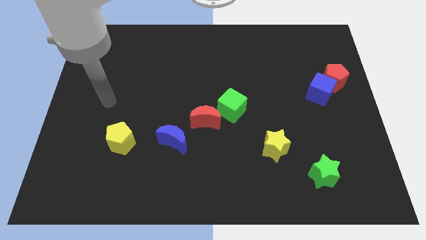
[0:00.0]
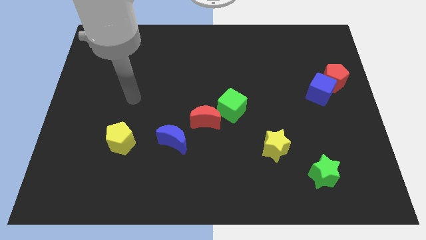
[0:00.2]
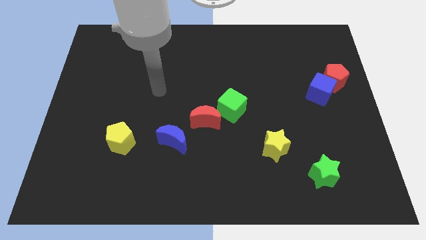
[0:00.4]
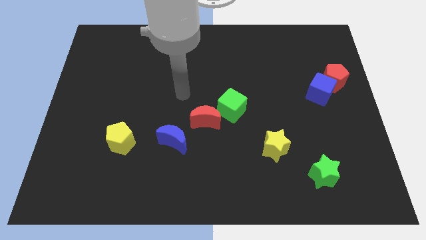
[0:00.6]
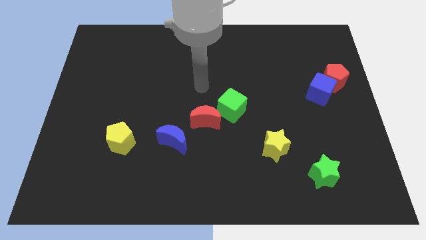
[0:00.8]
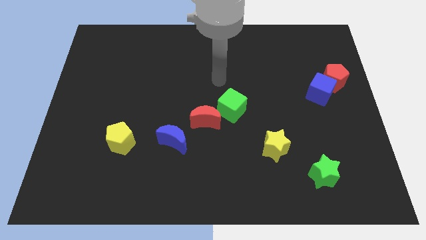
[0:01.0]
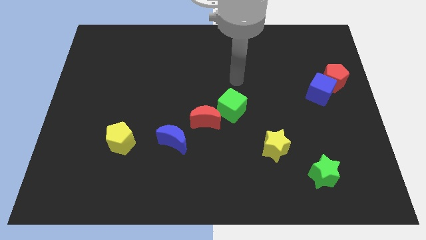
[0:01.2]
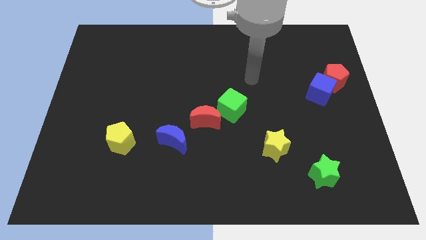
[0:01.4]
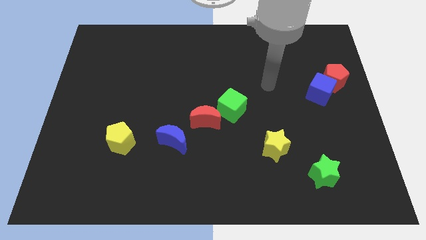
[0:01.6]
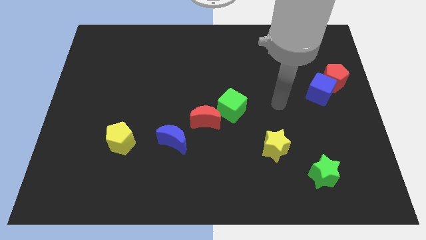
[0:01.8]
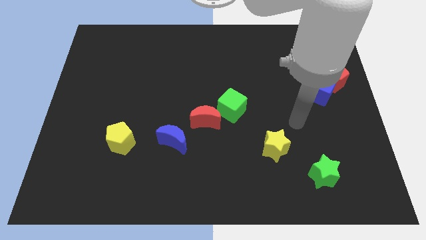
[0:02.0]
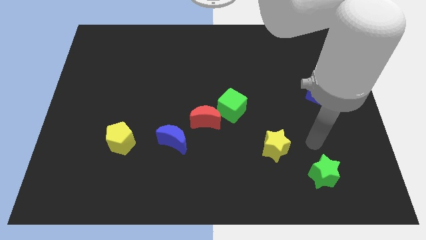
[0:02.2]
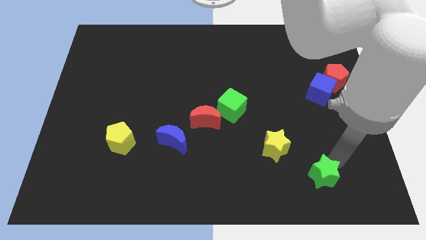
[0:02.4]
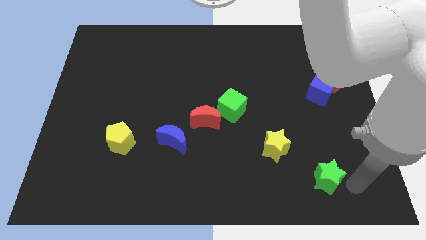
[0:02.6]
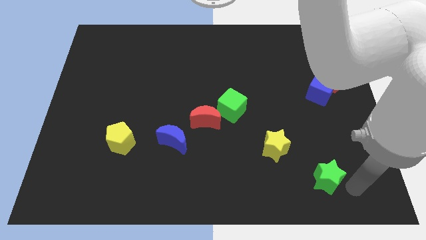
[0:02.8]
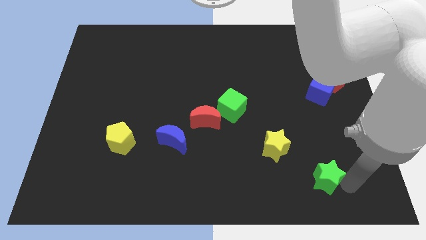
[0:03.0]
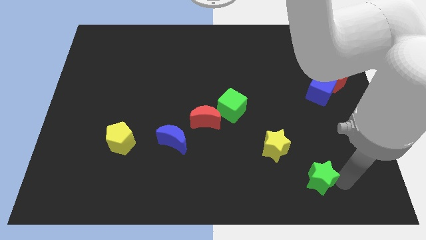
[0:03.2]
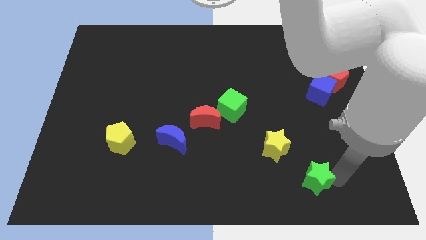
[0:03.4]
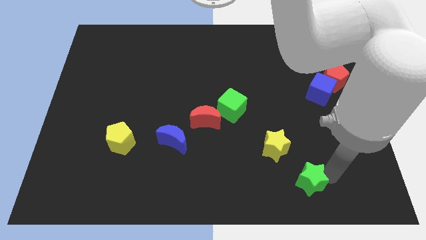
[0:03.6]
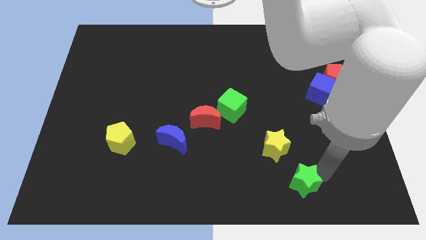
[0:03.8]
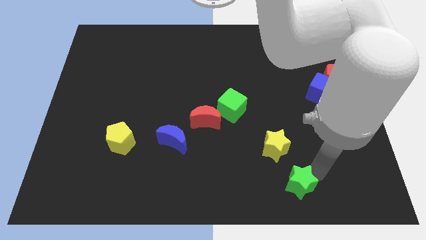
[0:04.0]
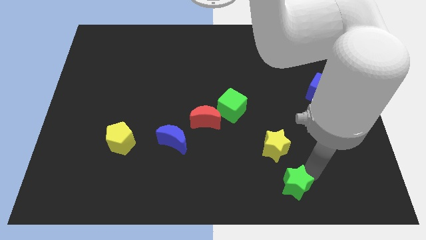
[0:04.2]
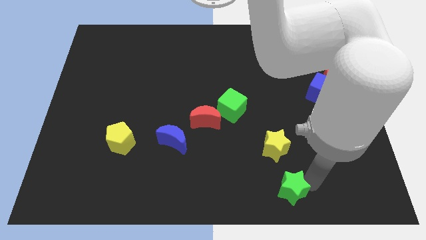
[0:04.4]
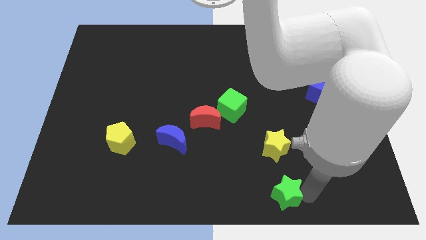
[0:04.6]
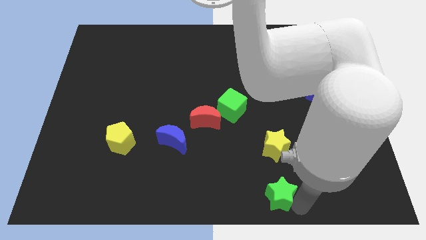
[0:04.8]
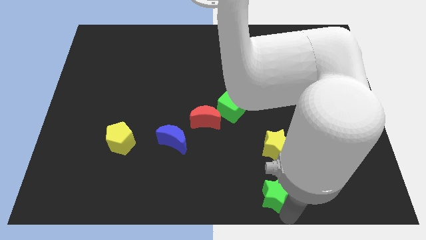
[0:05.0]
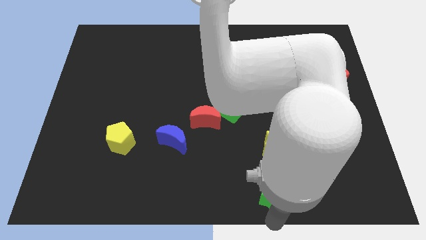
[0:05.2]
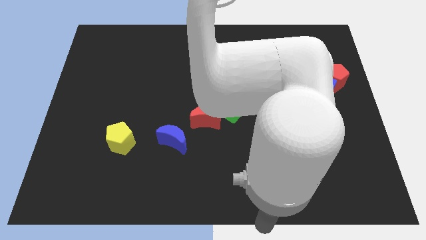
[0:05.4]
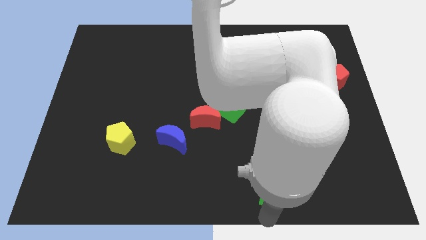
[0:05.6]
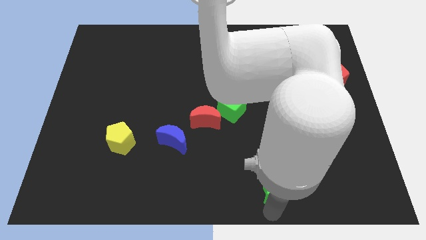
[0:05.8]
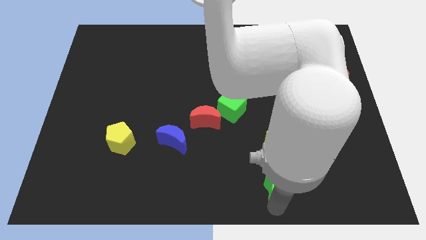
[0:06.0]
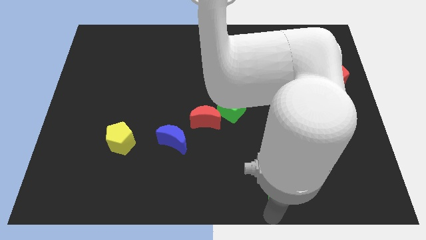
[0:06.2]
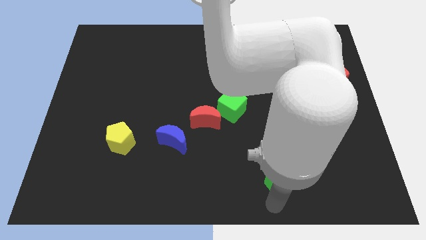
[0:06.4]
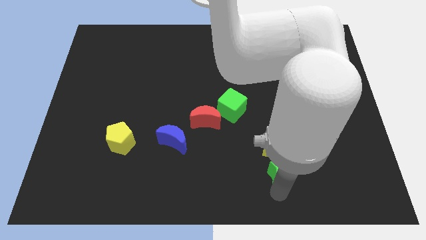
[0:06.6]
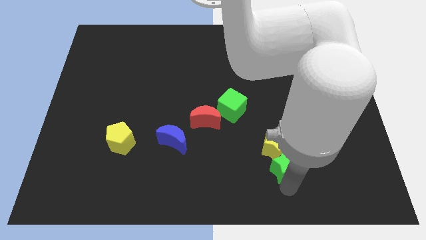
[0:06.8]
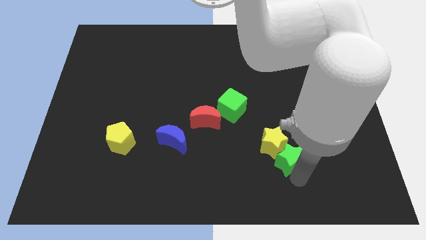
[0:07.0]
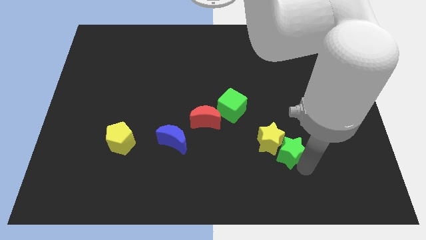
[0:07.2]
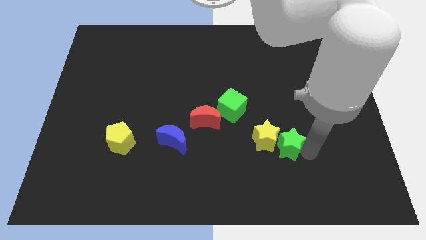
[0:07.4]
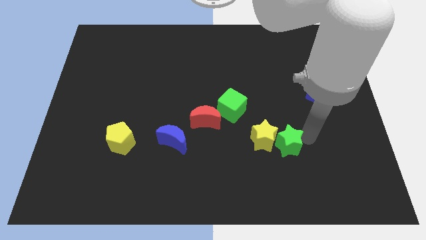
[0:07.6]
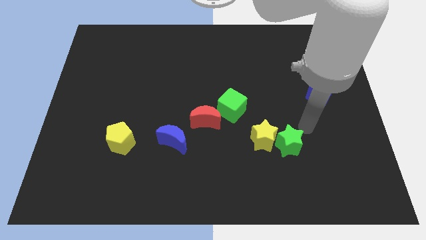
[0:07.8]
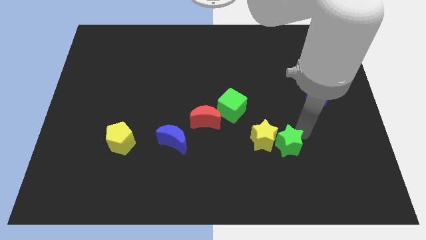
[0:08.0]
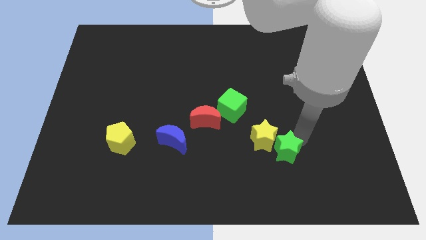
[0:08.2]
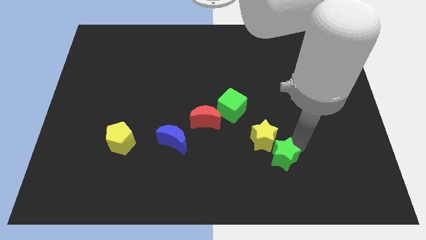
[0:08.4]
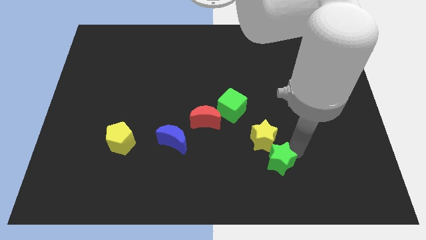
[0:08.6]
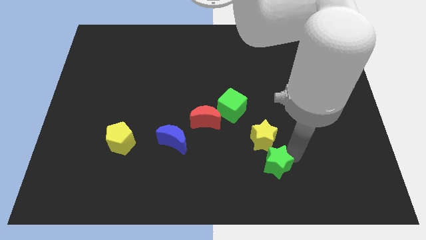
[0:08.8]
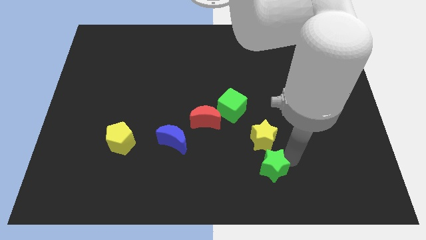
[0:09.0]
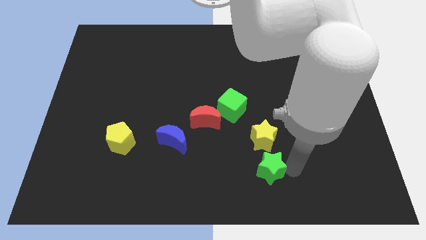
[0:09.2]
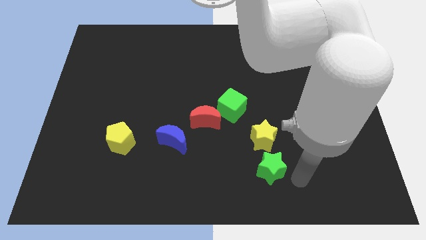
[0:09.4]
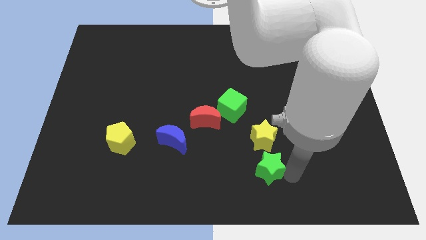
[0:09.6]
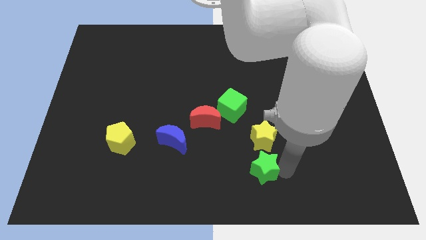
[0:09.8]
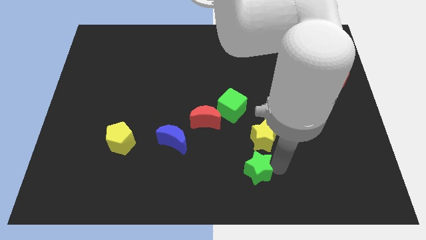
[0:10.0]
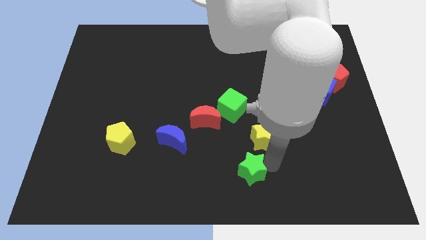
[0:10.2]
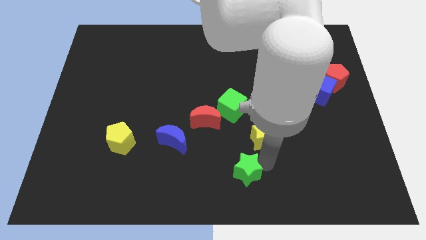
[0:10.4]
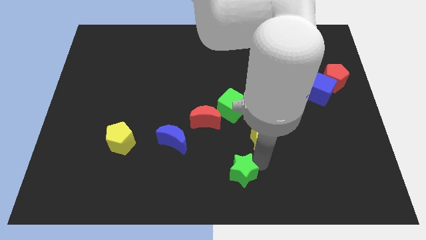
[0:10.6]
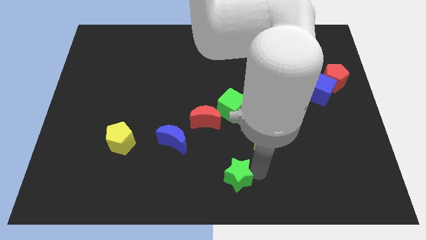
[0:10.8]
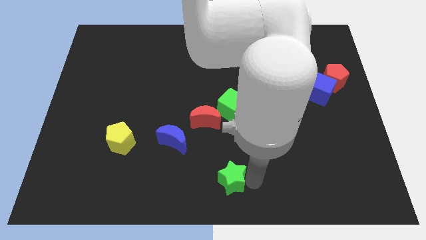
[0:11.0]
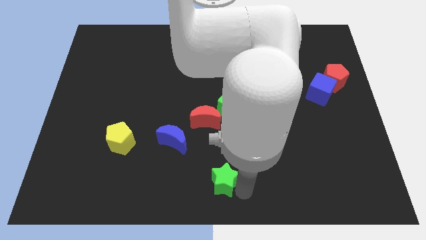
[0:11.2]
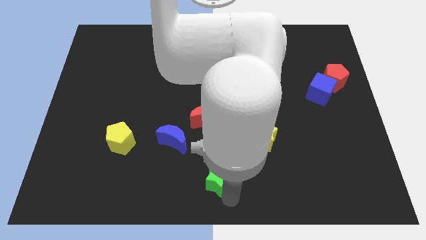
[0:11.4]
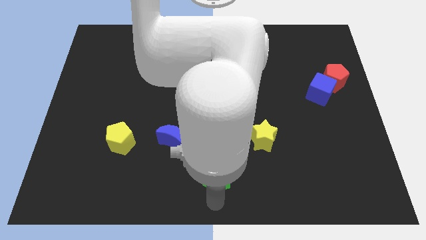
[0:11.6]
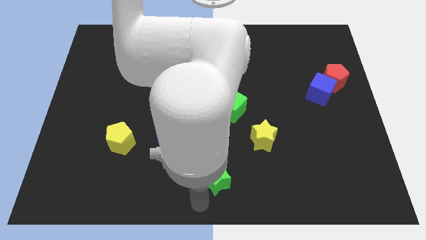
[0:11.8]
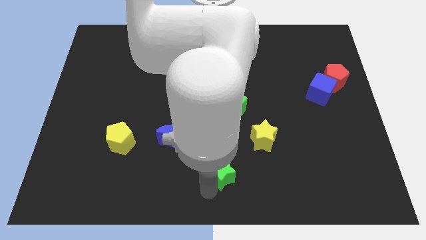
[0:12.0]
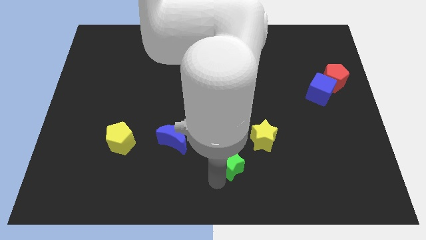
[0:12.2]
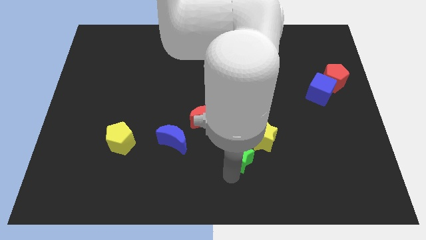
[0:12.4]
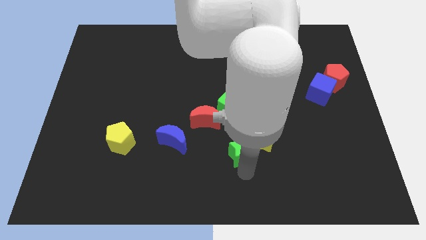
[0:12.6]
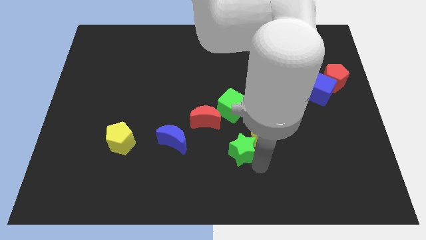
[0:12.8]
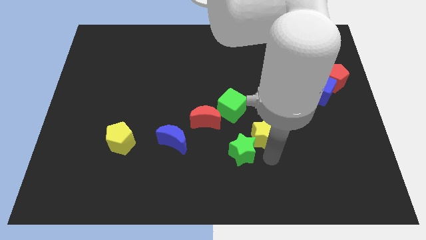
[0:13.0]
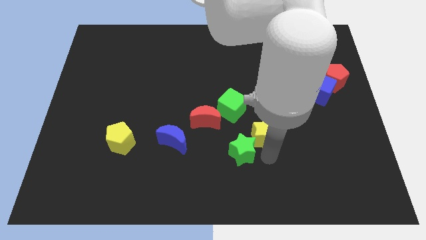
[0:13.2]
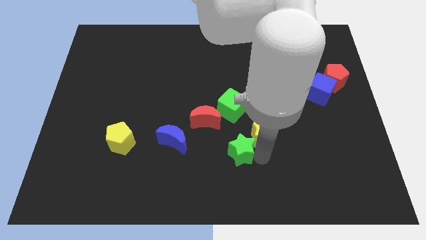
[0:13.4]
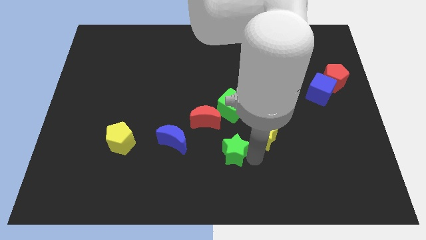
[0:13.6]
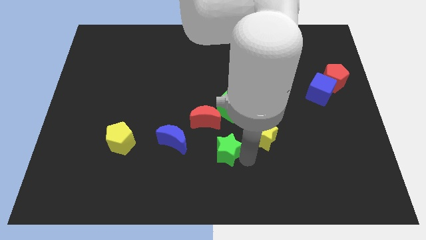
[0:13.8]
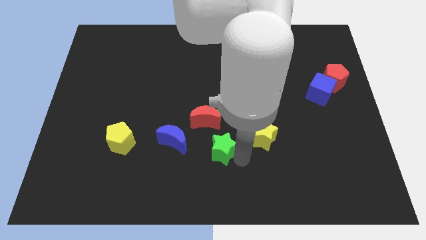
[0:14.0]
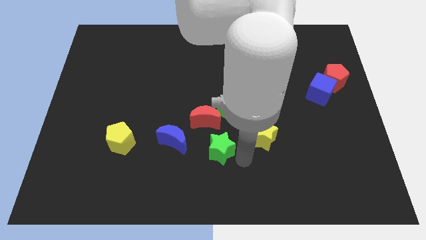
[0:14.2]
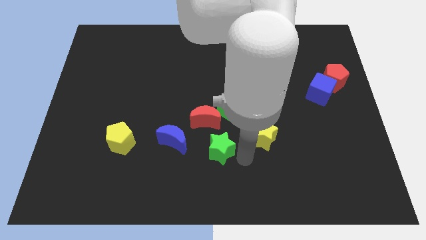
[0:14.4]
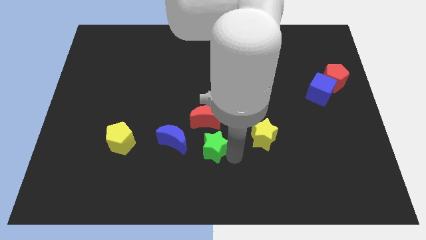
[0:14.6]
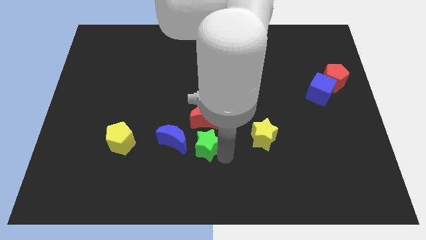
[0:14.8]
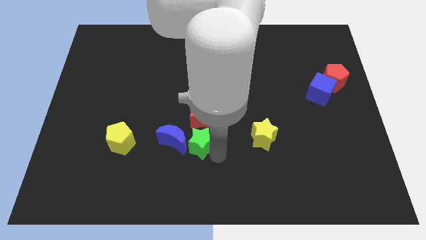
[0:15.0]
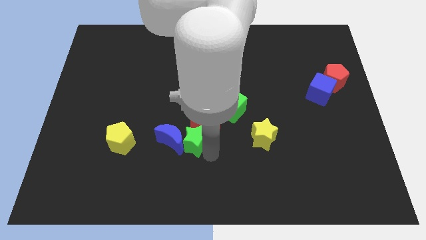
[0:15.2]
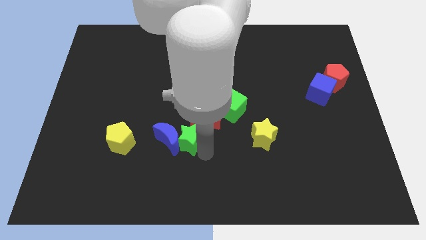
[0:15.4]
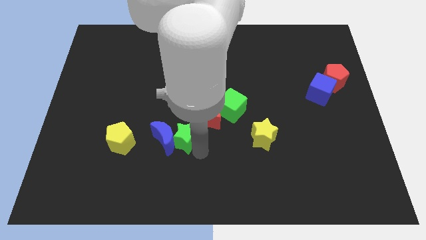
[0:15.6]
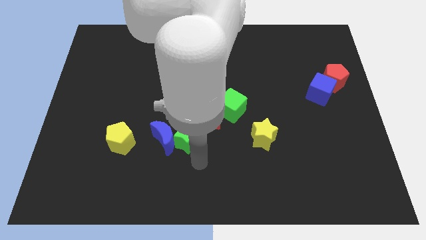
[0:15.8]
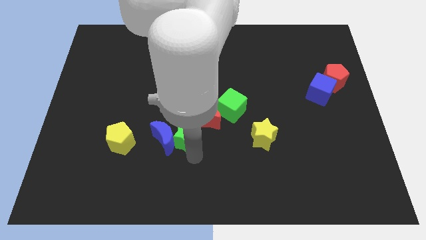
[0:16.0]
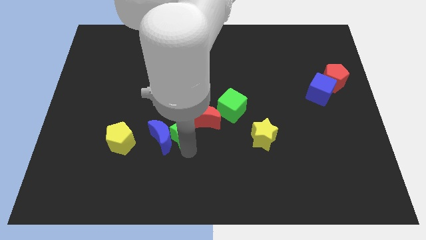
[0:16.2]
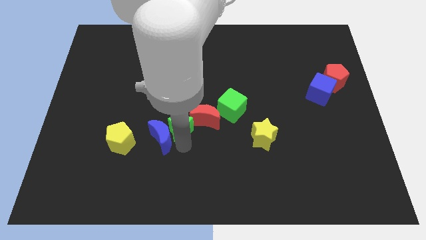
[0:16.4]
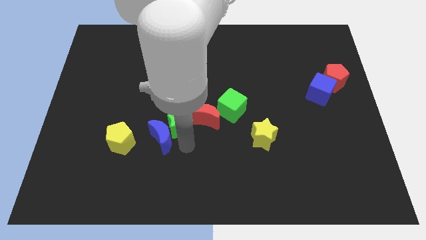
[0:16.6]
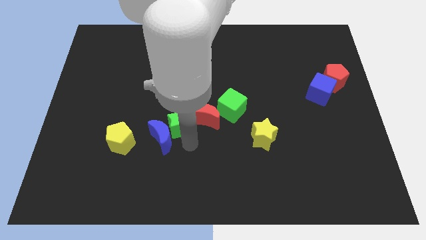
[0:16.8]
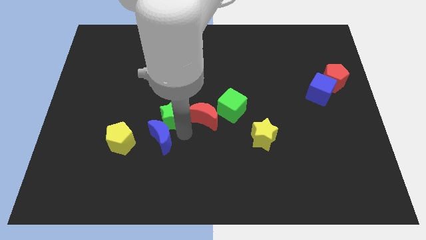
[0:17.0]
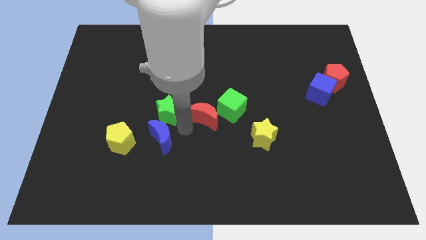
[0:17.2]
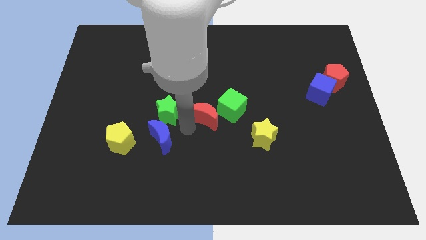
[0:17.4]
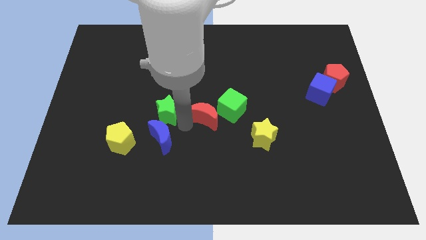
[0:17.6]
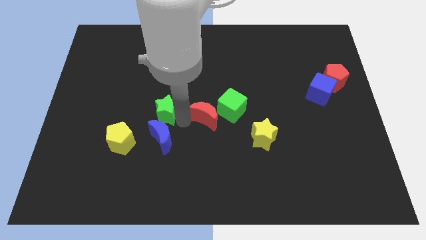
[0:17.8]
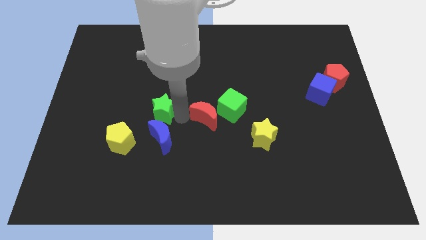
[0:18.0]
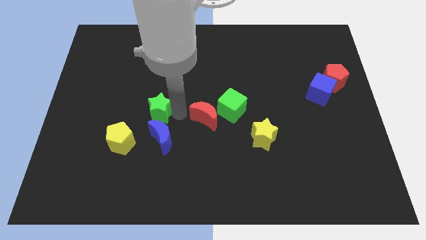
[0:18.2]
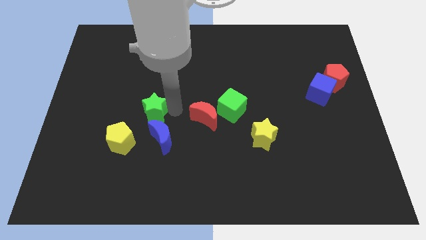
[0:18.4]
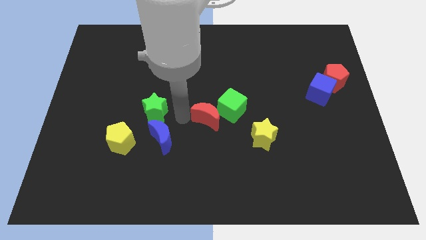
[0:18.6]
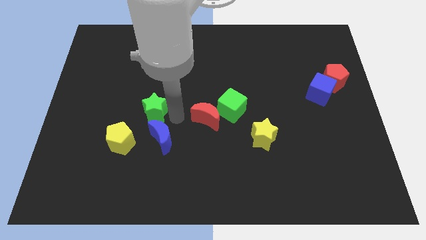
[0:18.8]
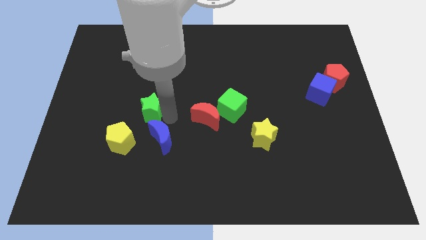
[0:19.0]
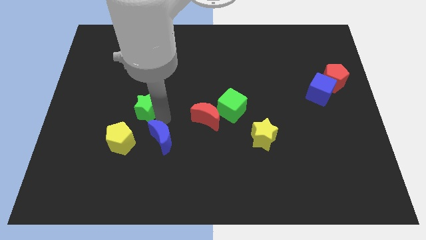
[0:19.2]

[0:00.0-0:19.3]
put the green star above the yellow pentagon
